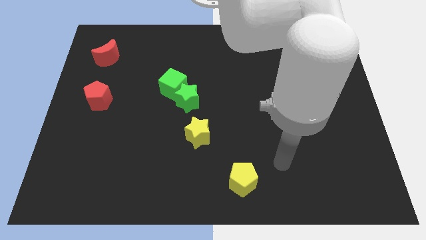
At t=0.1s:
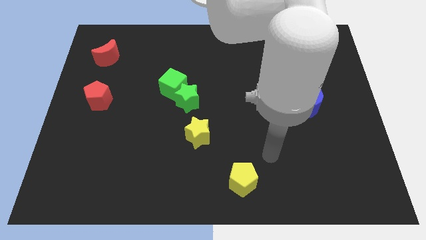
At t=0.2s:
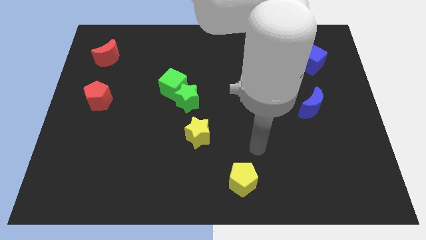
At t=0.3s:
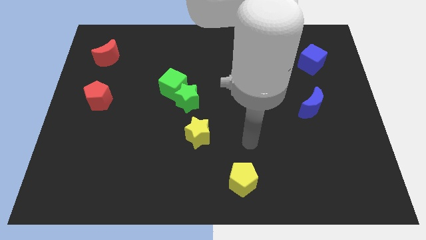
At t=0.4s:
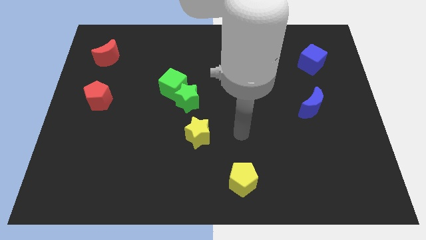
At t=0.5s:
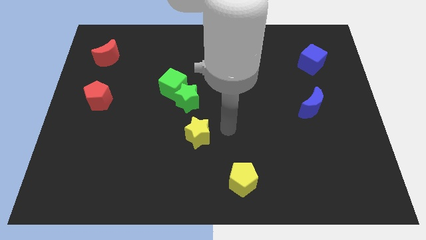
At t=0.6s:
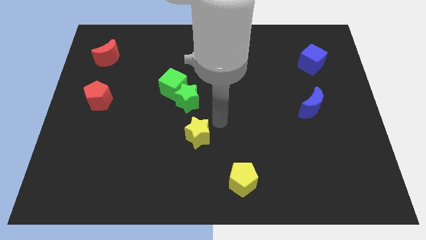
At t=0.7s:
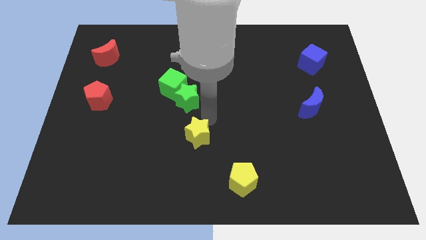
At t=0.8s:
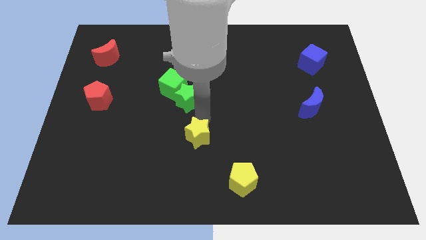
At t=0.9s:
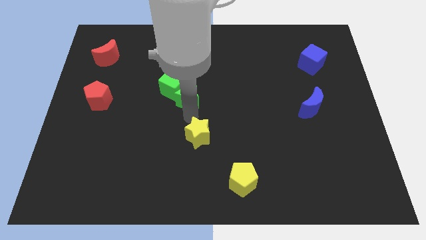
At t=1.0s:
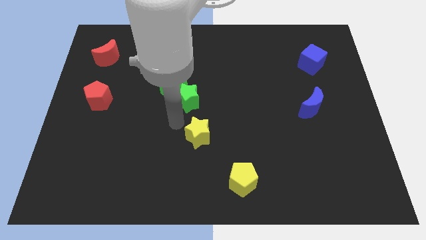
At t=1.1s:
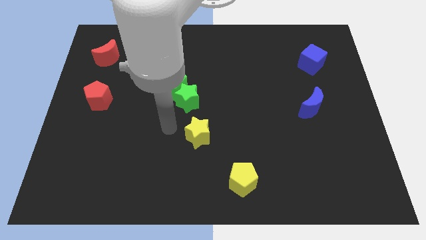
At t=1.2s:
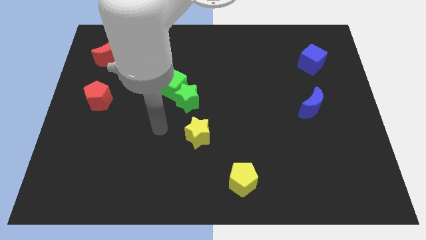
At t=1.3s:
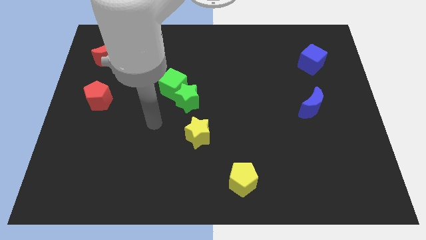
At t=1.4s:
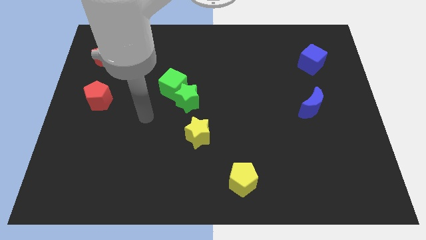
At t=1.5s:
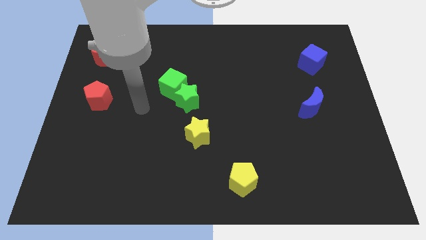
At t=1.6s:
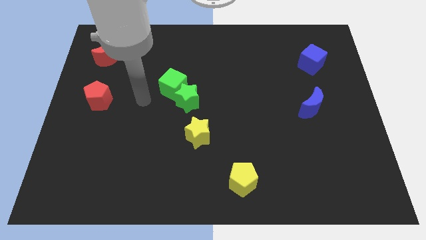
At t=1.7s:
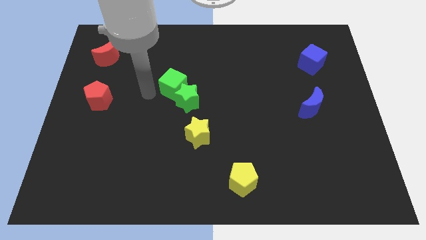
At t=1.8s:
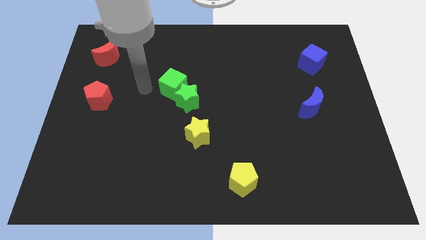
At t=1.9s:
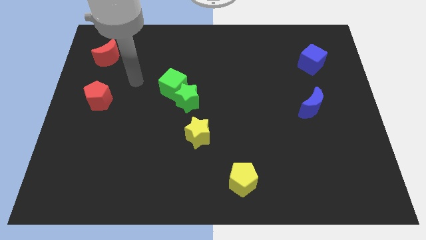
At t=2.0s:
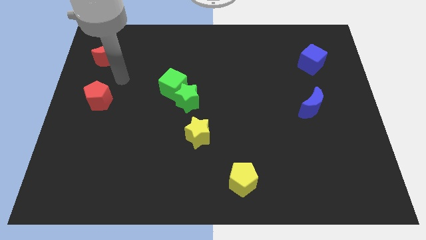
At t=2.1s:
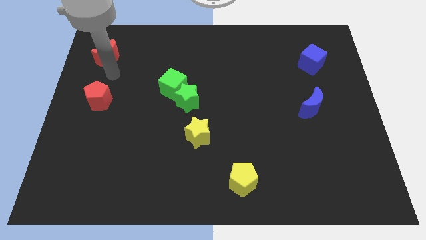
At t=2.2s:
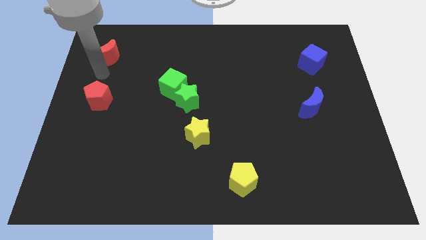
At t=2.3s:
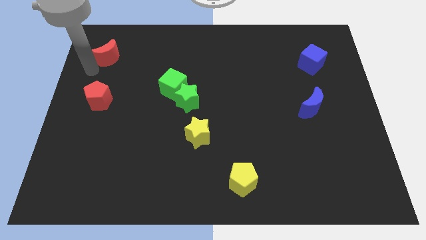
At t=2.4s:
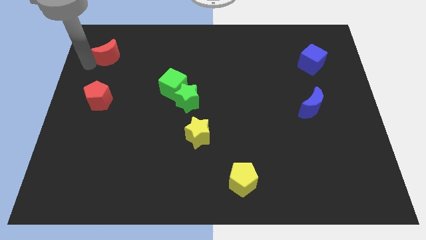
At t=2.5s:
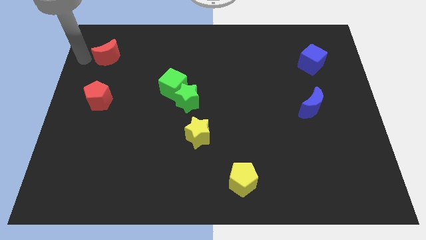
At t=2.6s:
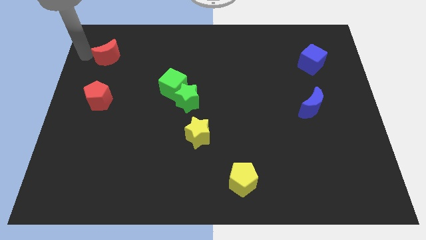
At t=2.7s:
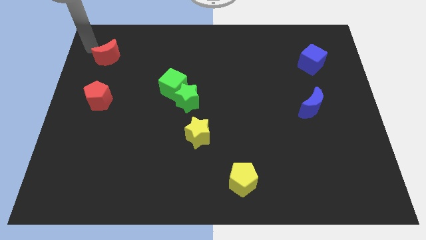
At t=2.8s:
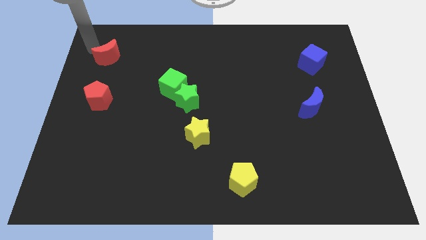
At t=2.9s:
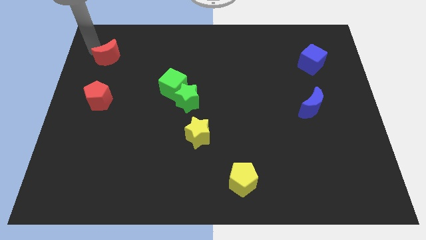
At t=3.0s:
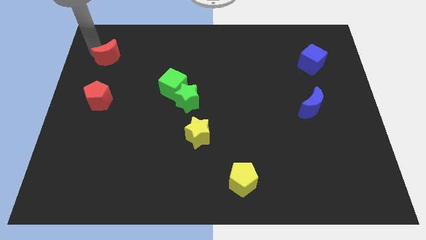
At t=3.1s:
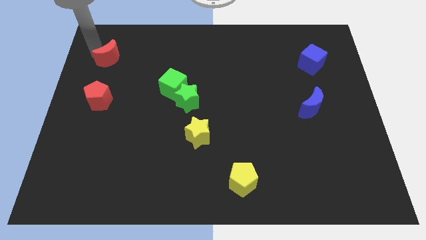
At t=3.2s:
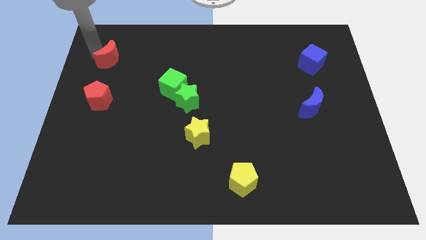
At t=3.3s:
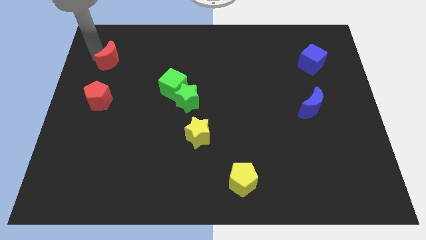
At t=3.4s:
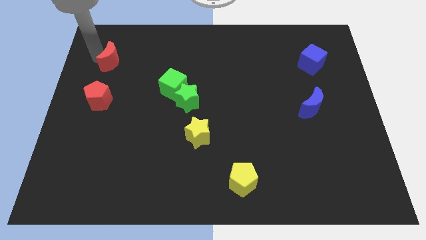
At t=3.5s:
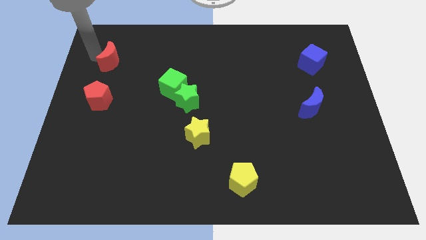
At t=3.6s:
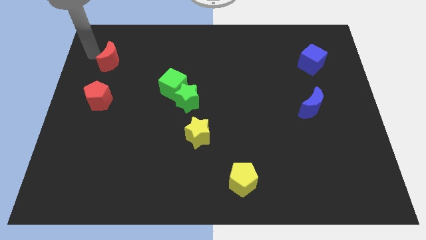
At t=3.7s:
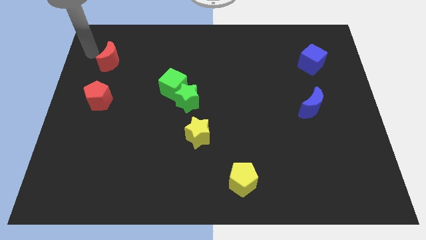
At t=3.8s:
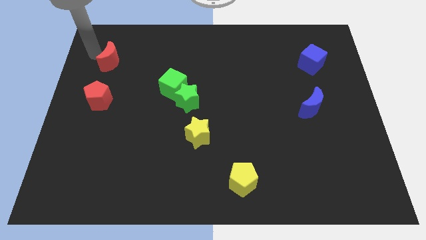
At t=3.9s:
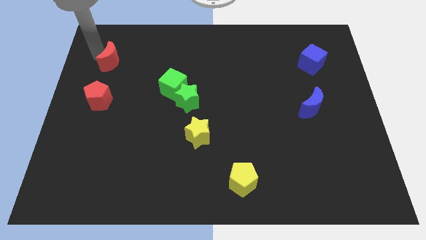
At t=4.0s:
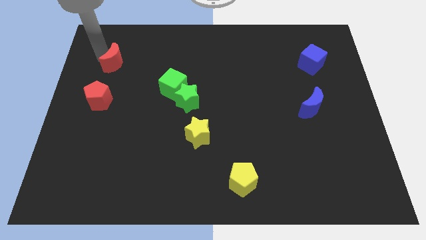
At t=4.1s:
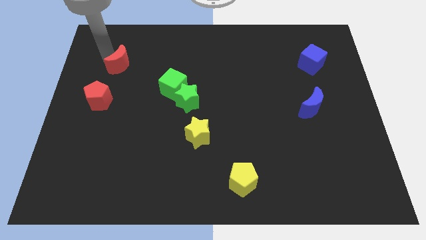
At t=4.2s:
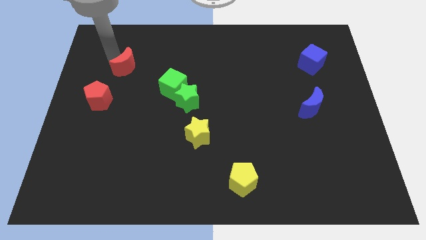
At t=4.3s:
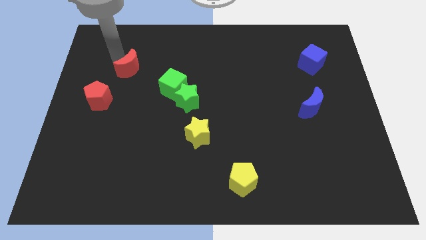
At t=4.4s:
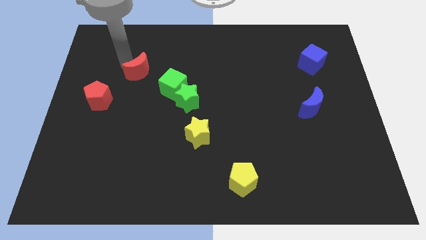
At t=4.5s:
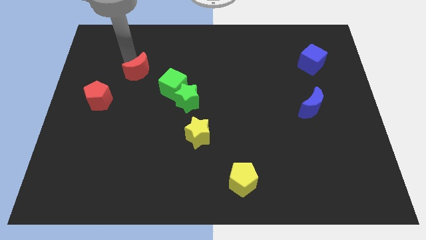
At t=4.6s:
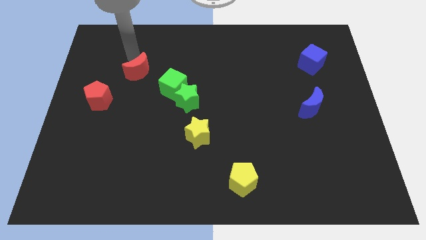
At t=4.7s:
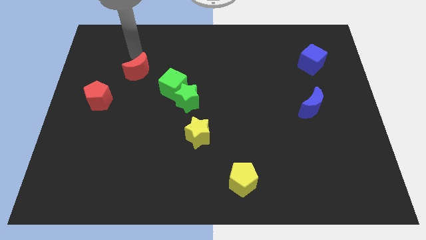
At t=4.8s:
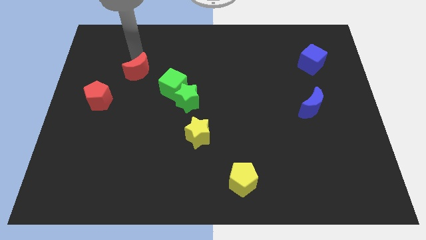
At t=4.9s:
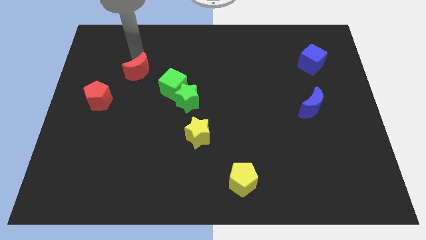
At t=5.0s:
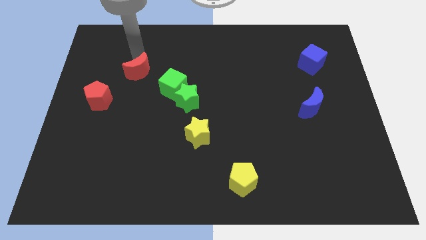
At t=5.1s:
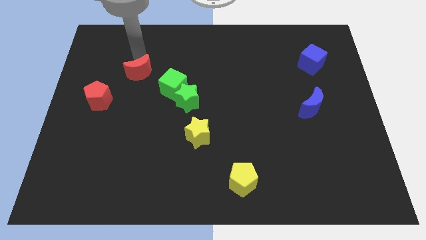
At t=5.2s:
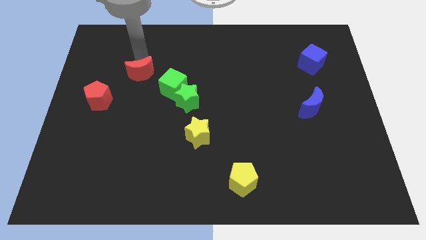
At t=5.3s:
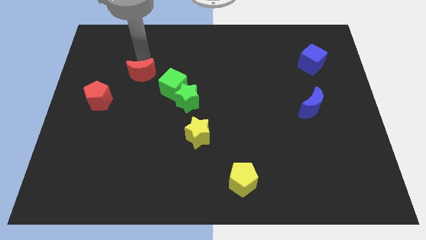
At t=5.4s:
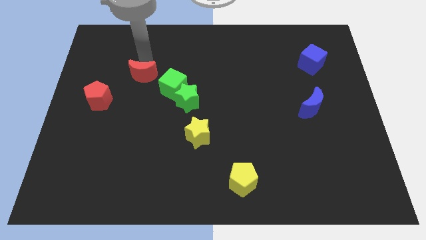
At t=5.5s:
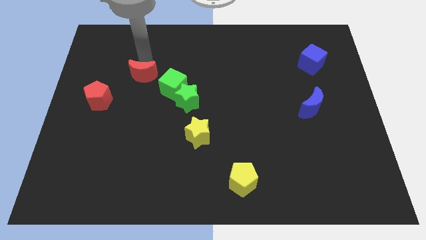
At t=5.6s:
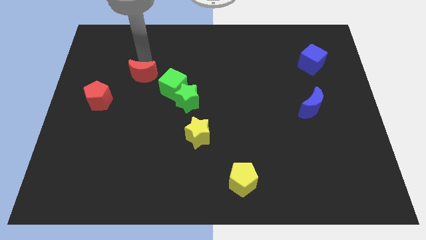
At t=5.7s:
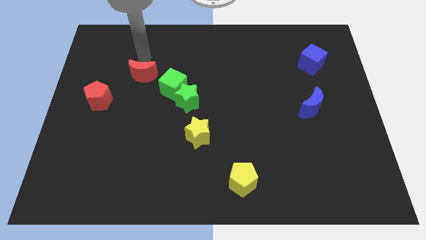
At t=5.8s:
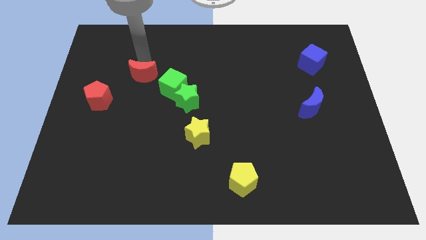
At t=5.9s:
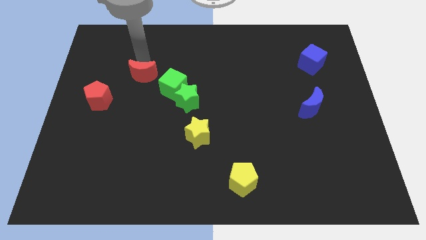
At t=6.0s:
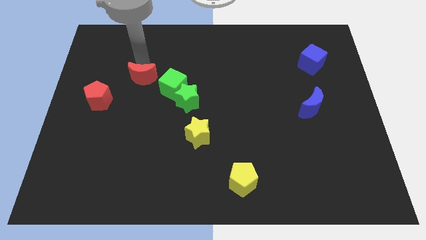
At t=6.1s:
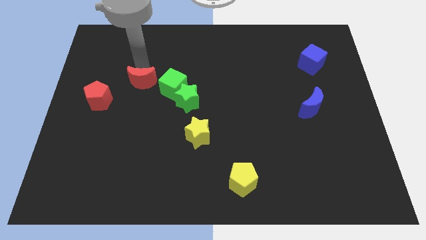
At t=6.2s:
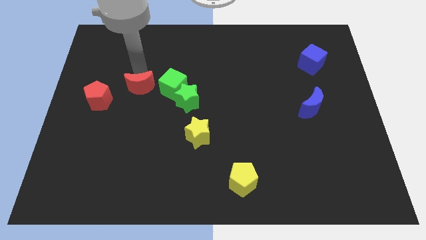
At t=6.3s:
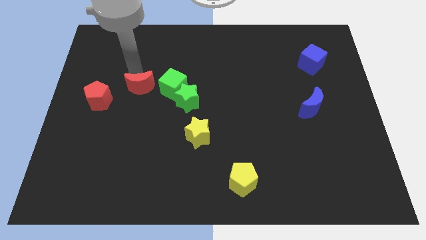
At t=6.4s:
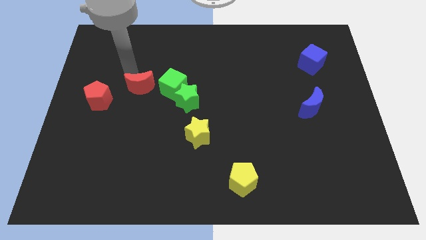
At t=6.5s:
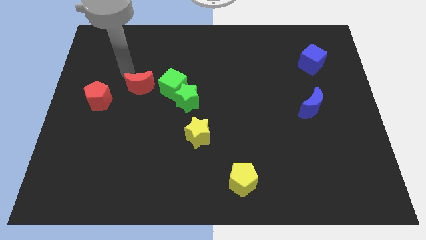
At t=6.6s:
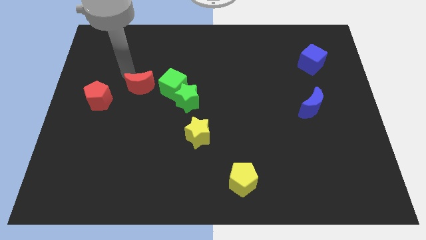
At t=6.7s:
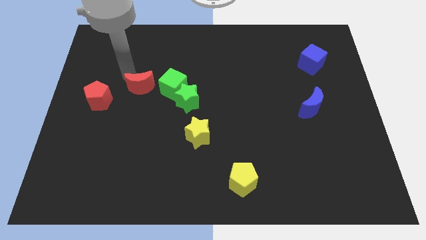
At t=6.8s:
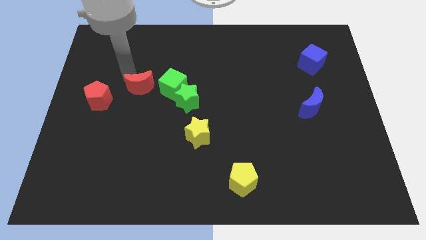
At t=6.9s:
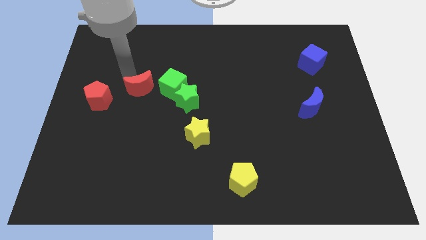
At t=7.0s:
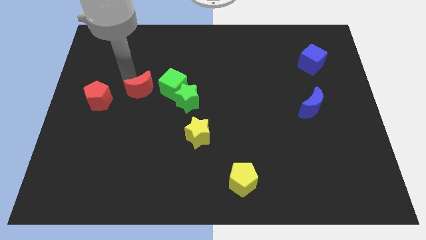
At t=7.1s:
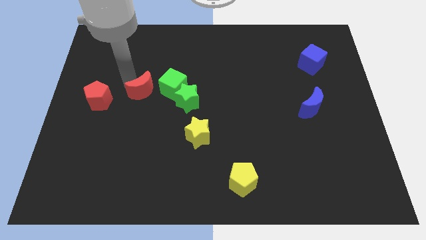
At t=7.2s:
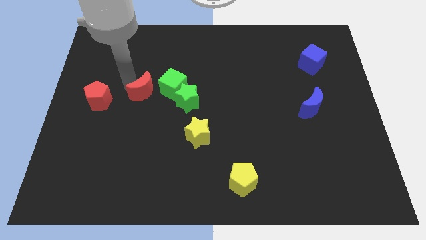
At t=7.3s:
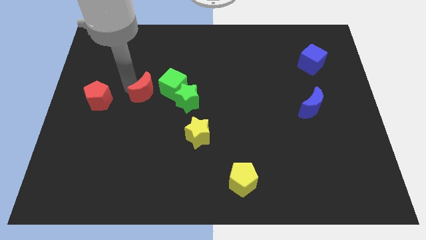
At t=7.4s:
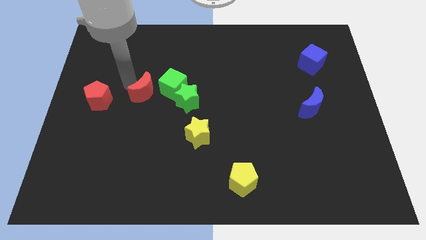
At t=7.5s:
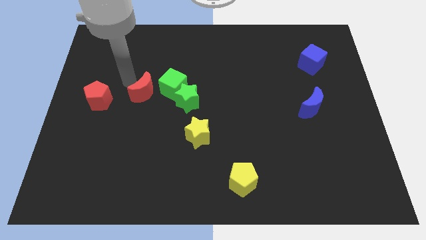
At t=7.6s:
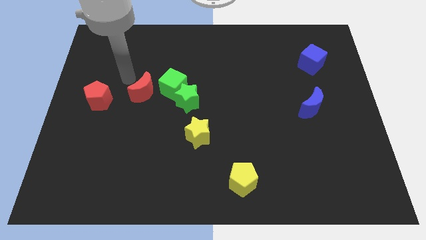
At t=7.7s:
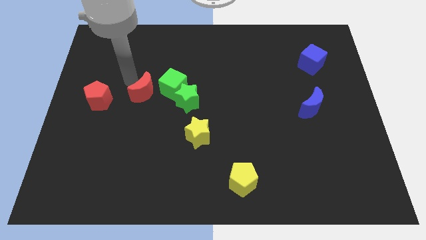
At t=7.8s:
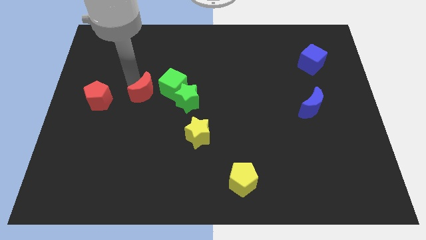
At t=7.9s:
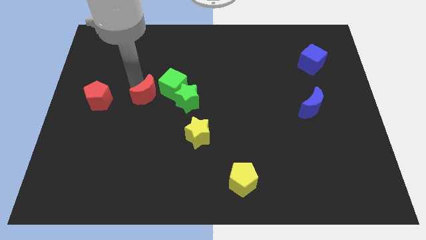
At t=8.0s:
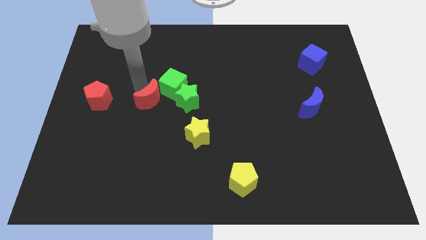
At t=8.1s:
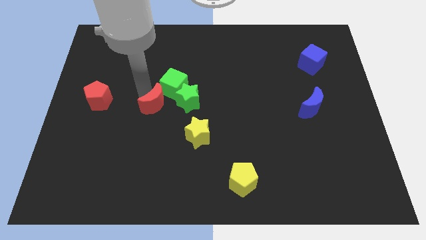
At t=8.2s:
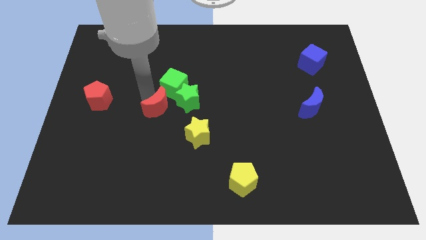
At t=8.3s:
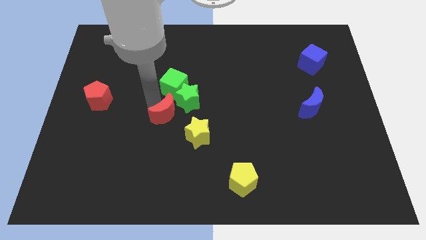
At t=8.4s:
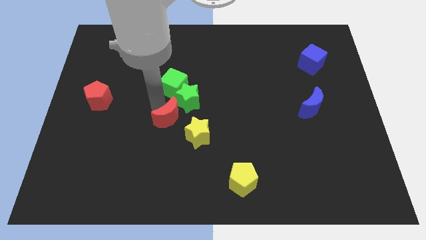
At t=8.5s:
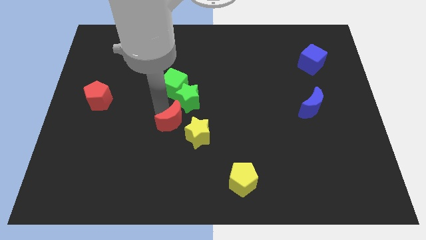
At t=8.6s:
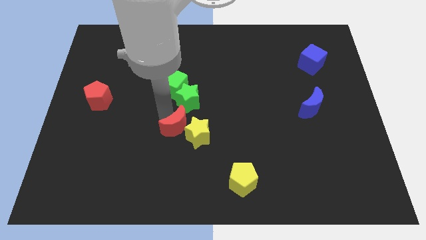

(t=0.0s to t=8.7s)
move the red moon next to the yellow star
